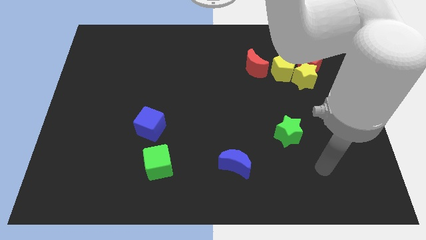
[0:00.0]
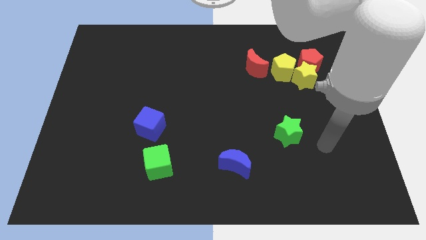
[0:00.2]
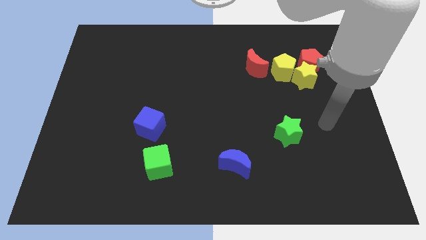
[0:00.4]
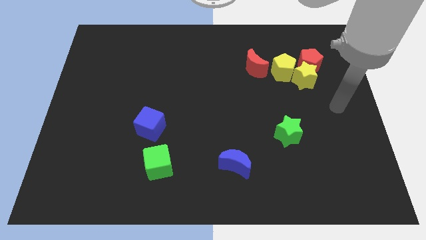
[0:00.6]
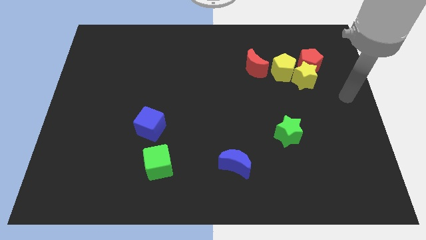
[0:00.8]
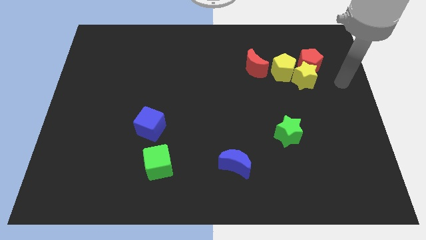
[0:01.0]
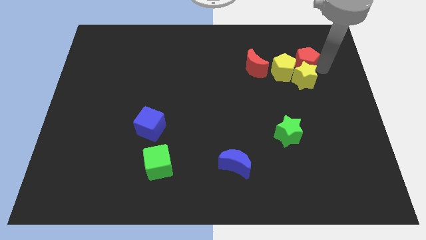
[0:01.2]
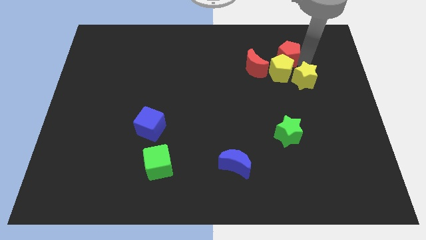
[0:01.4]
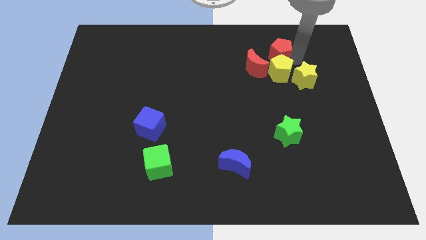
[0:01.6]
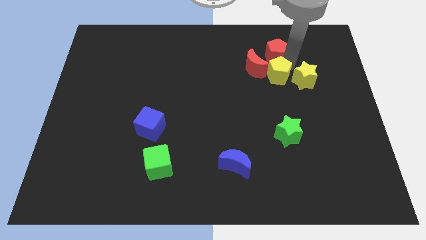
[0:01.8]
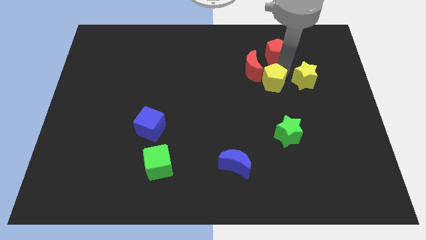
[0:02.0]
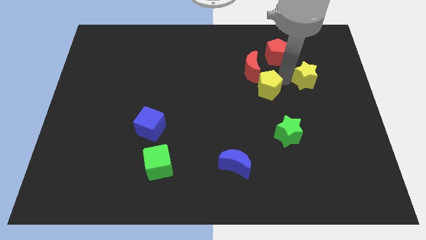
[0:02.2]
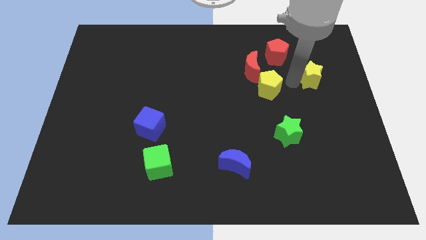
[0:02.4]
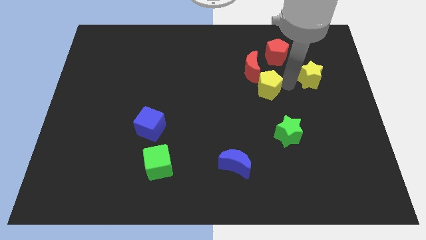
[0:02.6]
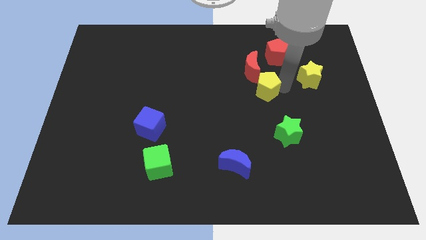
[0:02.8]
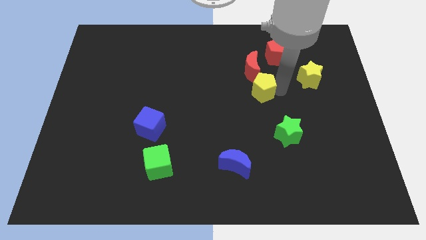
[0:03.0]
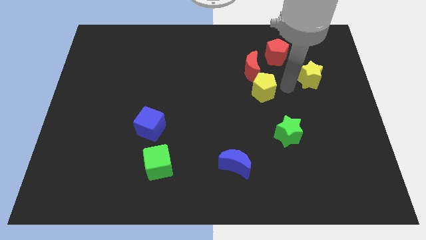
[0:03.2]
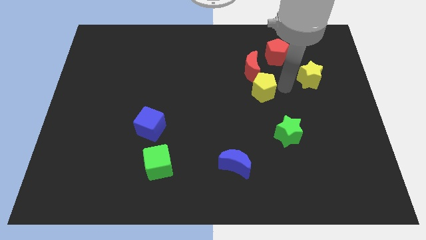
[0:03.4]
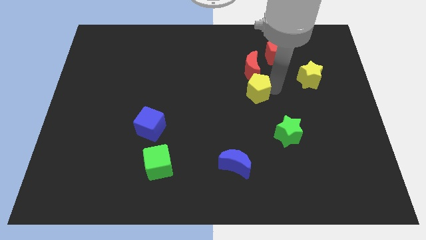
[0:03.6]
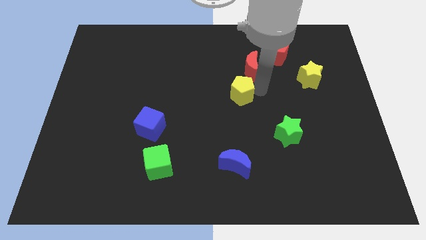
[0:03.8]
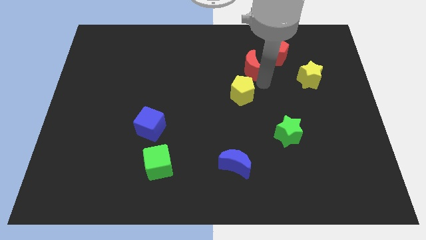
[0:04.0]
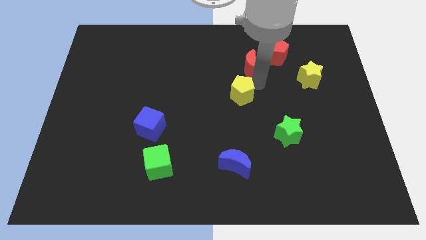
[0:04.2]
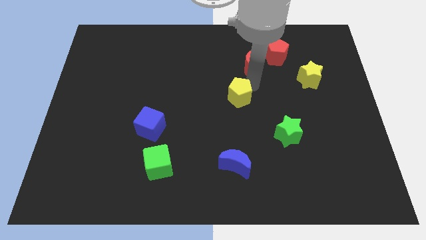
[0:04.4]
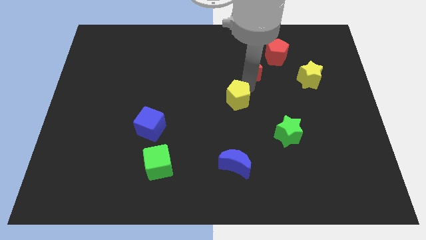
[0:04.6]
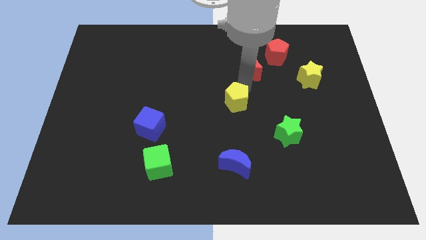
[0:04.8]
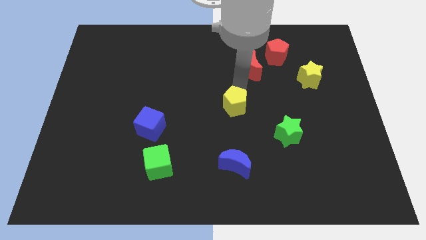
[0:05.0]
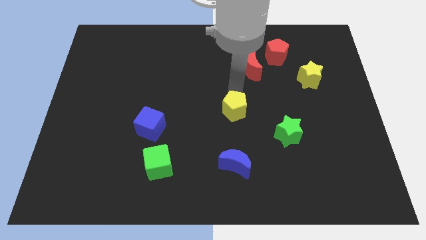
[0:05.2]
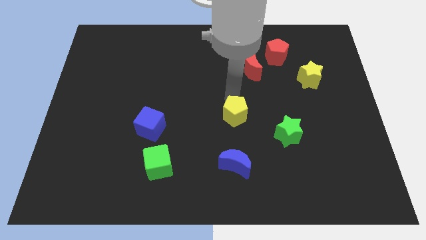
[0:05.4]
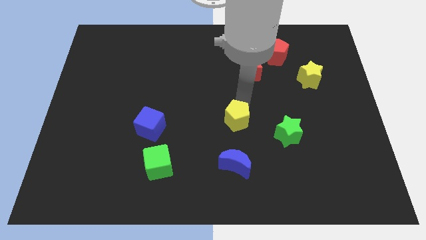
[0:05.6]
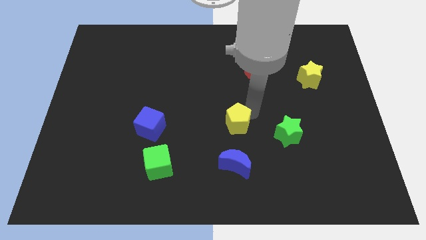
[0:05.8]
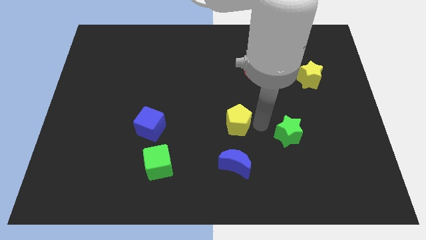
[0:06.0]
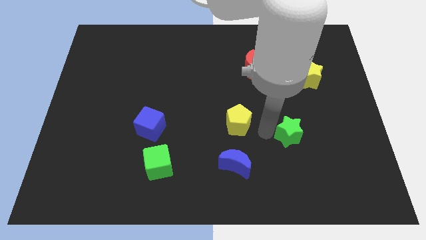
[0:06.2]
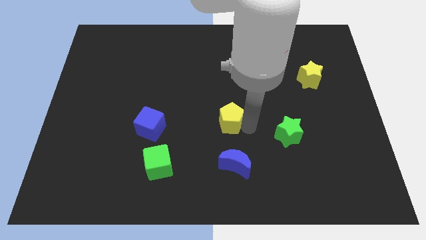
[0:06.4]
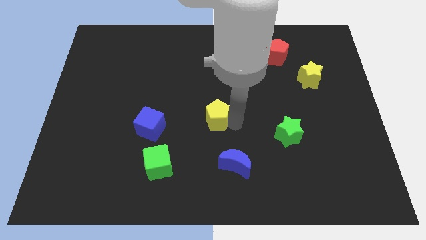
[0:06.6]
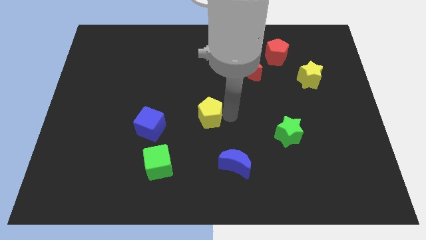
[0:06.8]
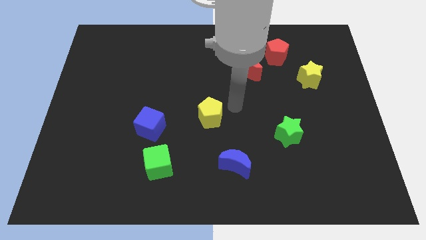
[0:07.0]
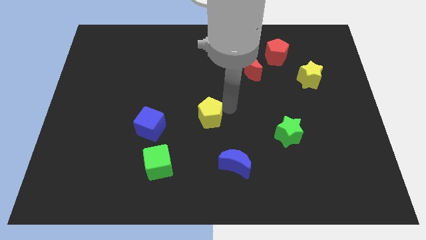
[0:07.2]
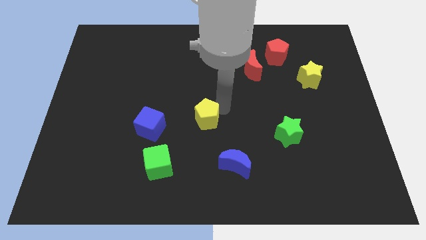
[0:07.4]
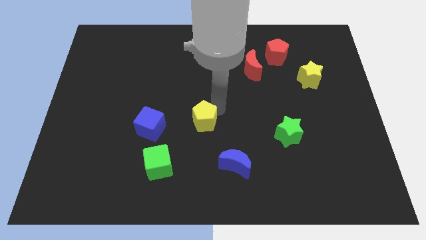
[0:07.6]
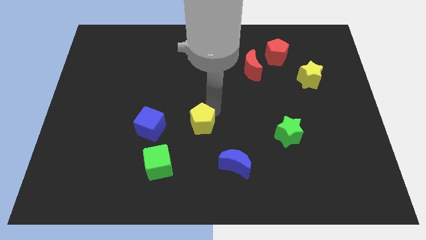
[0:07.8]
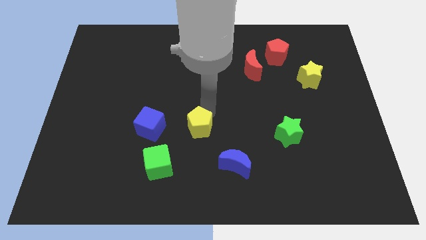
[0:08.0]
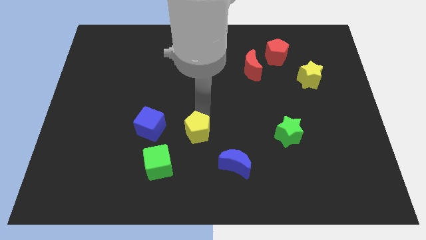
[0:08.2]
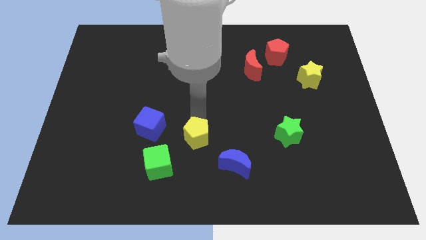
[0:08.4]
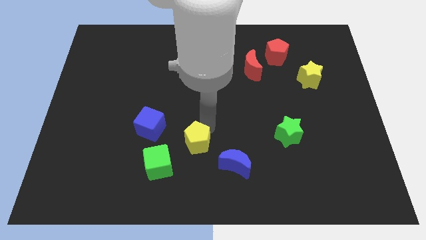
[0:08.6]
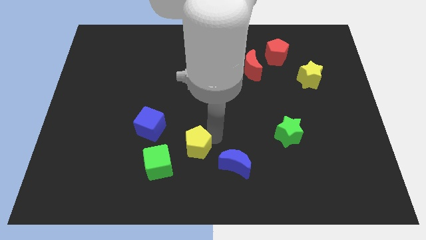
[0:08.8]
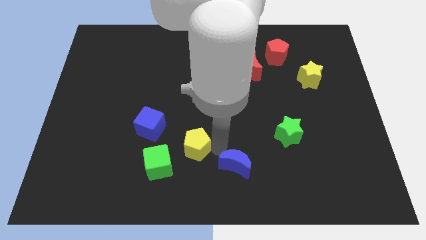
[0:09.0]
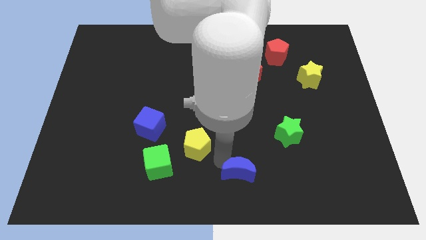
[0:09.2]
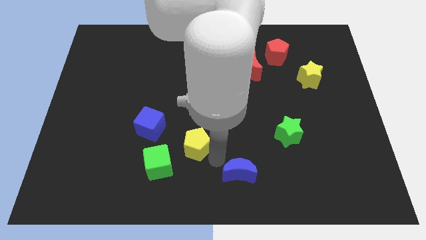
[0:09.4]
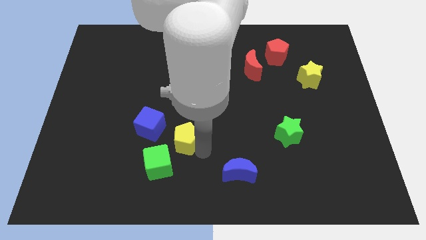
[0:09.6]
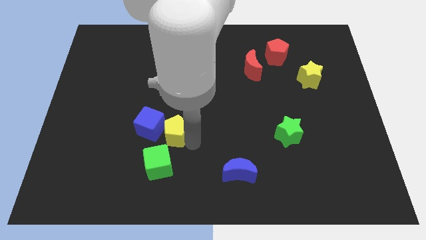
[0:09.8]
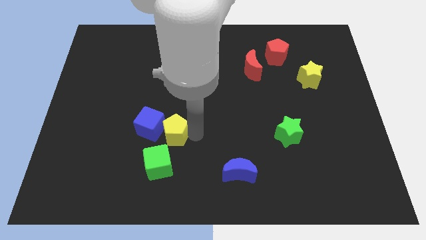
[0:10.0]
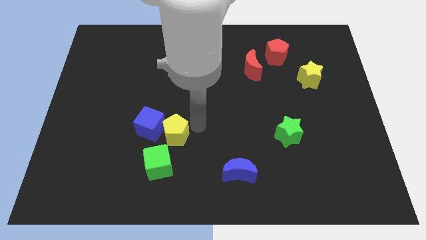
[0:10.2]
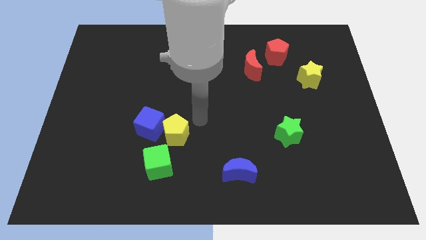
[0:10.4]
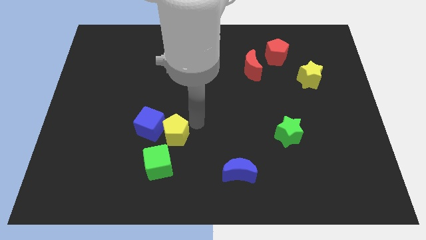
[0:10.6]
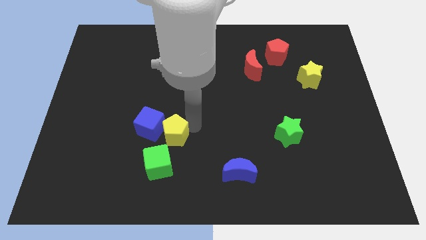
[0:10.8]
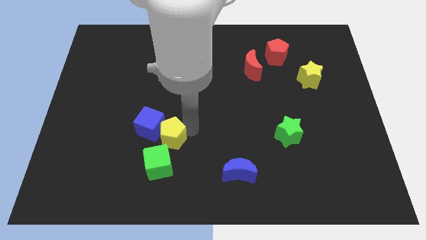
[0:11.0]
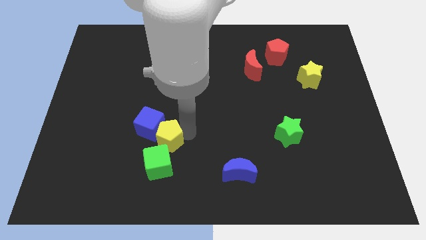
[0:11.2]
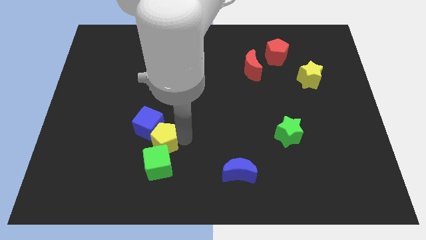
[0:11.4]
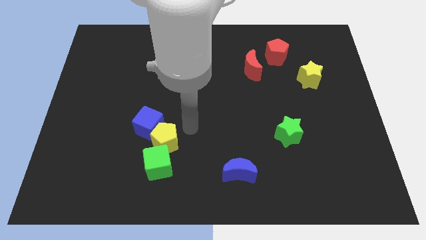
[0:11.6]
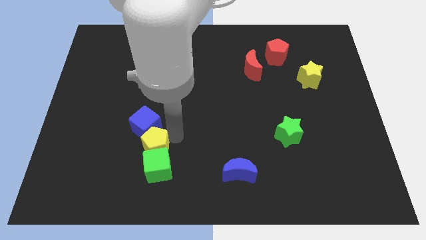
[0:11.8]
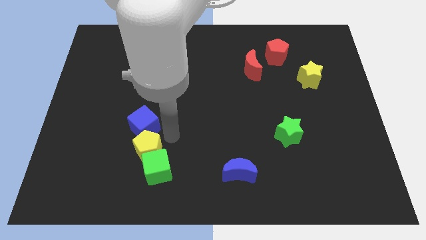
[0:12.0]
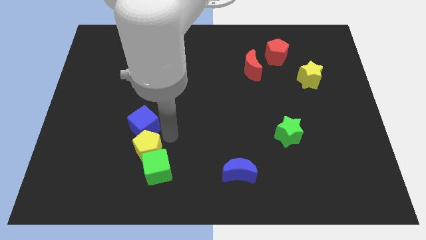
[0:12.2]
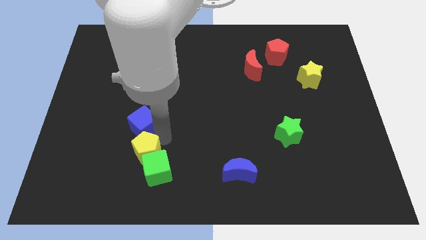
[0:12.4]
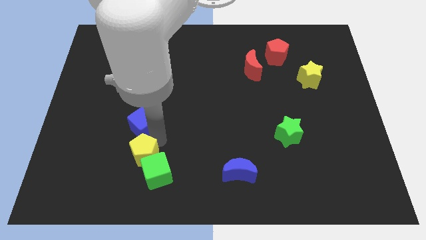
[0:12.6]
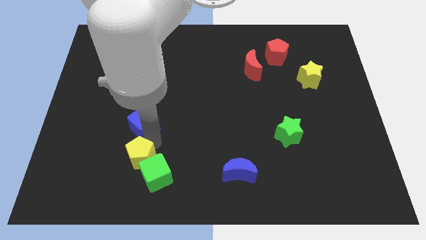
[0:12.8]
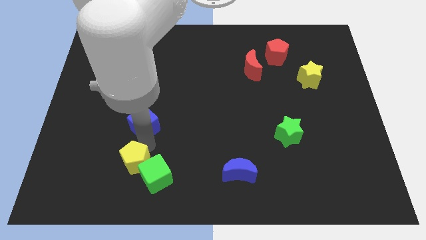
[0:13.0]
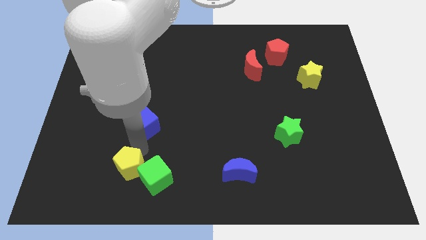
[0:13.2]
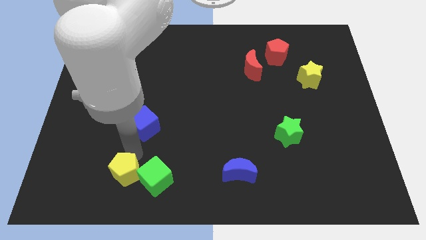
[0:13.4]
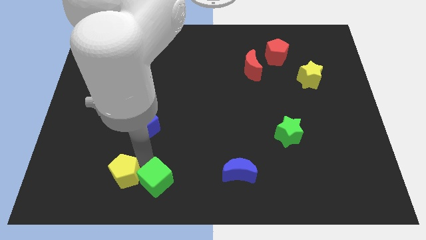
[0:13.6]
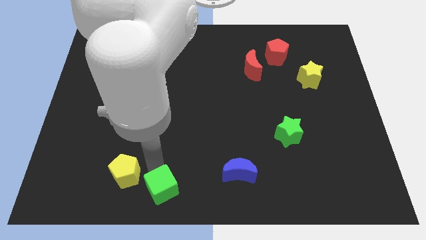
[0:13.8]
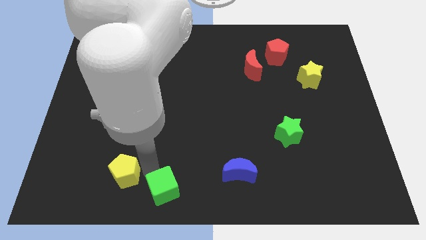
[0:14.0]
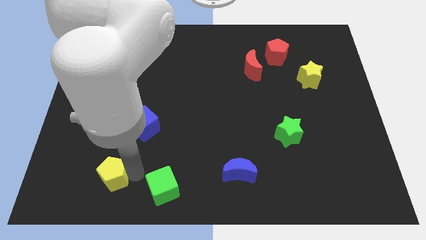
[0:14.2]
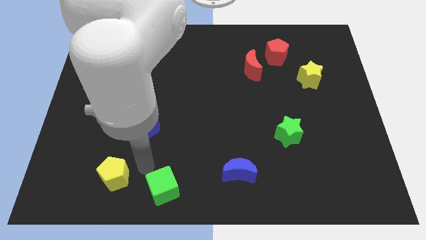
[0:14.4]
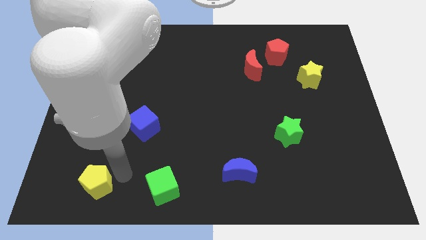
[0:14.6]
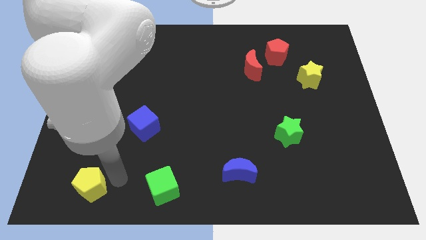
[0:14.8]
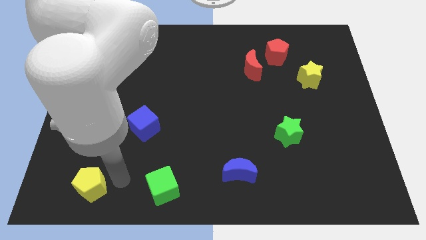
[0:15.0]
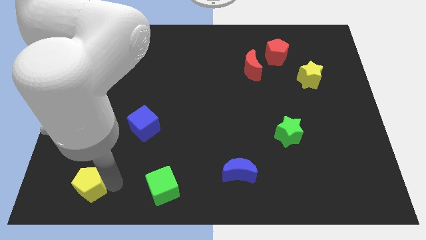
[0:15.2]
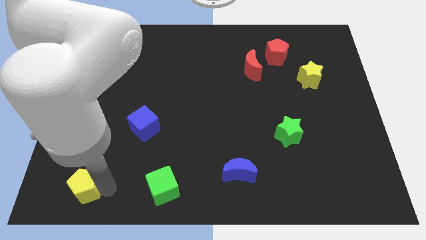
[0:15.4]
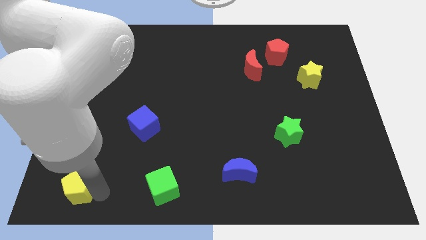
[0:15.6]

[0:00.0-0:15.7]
slide the yellow pentagon to the lower left corner
